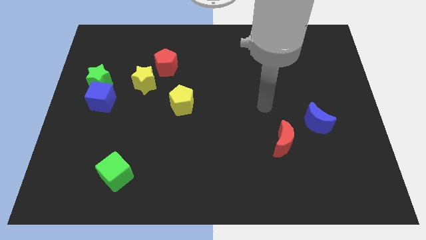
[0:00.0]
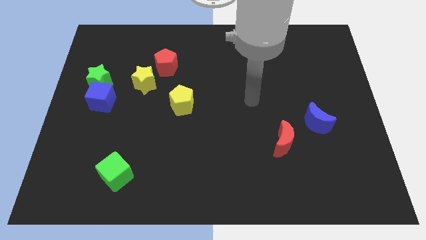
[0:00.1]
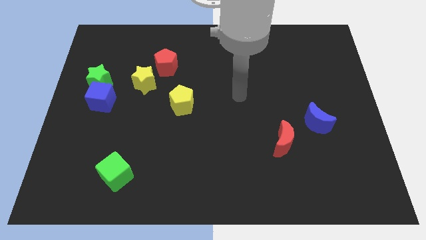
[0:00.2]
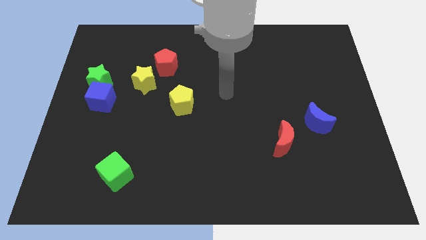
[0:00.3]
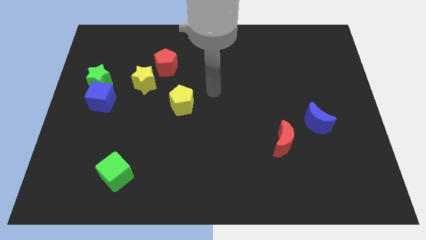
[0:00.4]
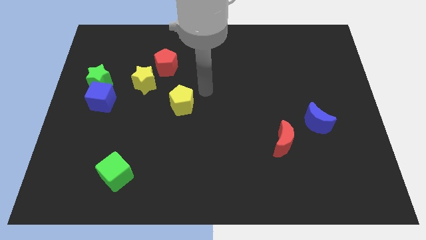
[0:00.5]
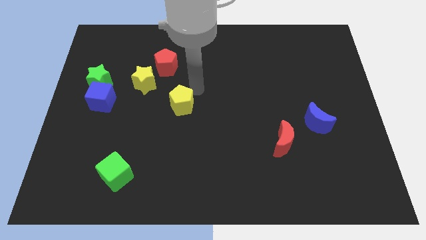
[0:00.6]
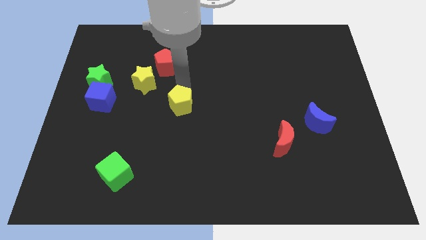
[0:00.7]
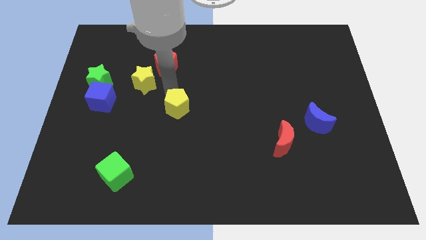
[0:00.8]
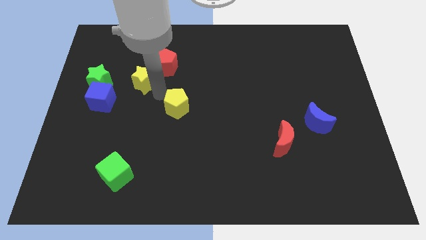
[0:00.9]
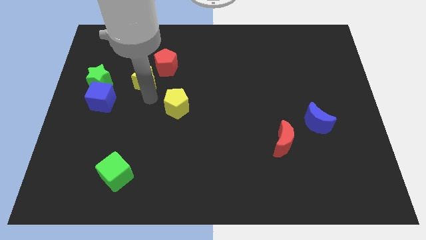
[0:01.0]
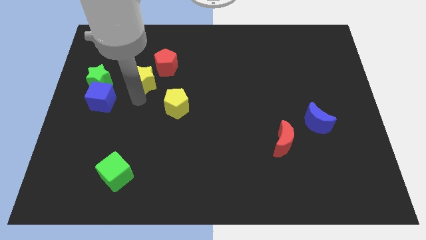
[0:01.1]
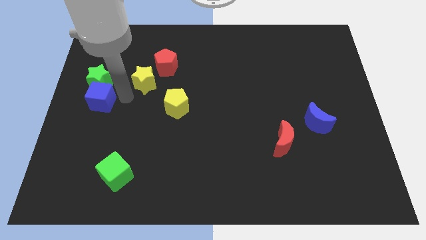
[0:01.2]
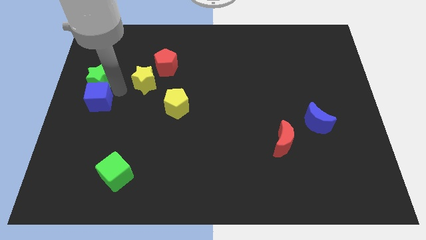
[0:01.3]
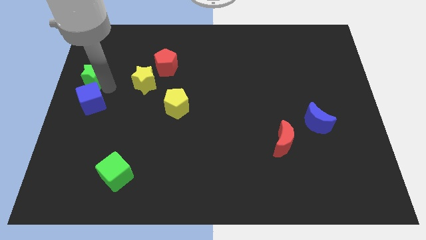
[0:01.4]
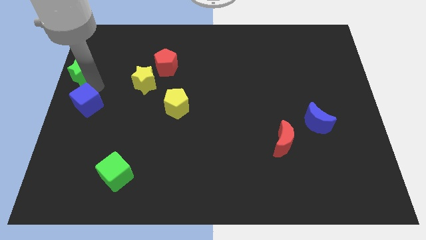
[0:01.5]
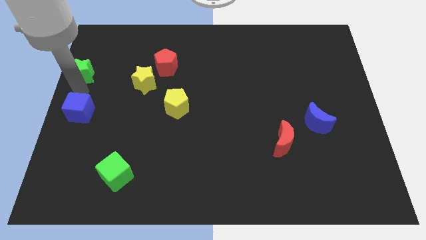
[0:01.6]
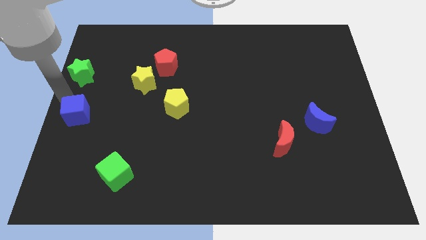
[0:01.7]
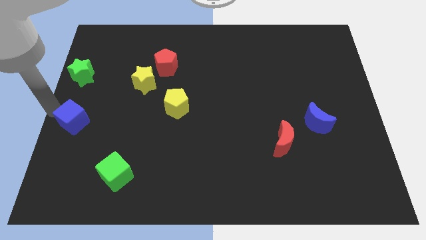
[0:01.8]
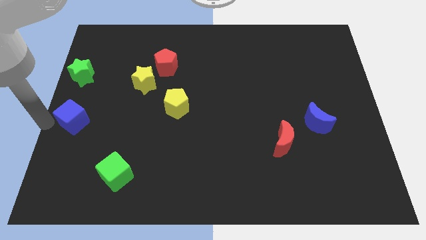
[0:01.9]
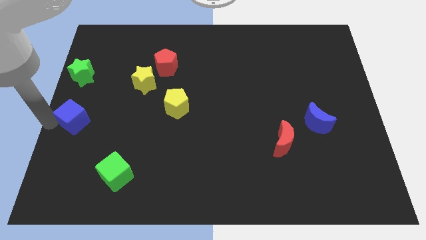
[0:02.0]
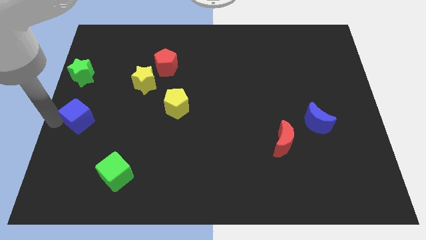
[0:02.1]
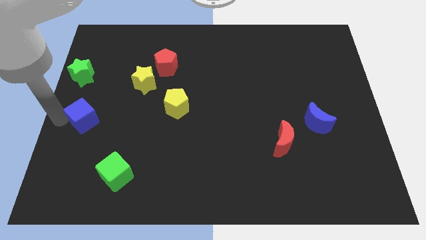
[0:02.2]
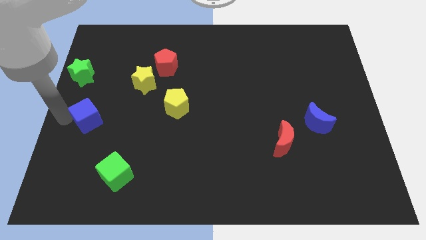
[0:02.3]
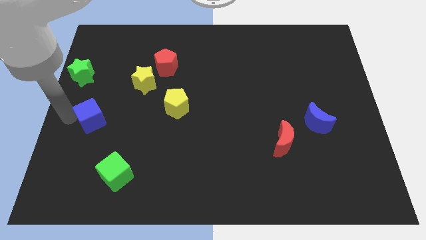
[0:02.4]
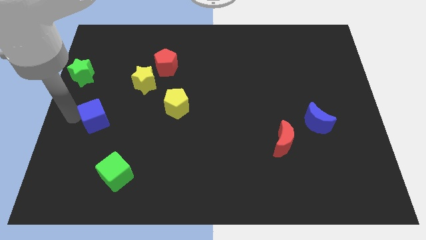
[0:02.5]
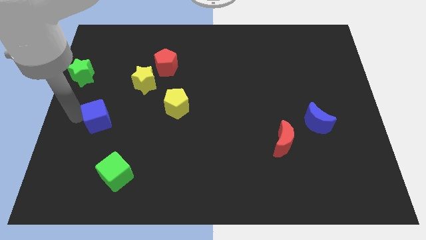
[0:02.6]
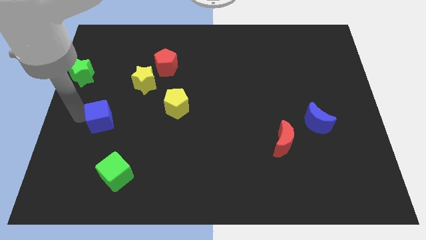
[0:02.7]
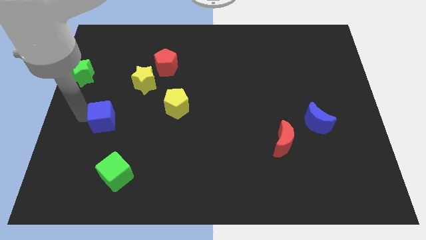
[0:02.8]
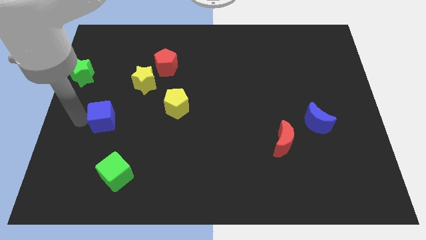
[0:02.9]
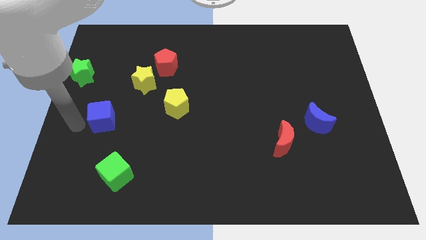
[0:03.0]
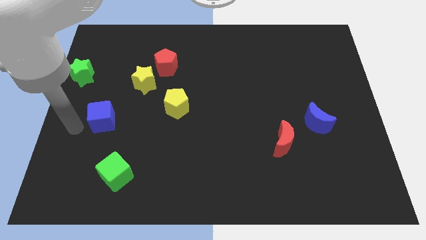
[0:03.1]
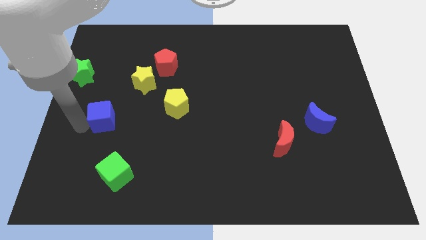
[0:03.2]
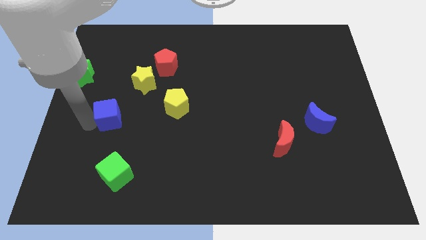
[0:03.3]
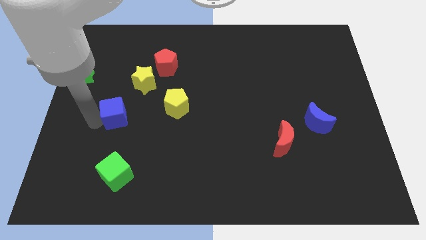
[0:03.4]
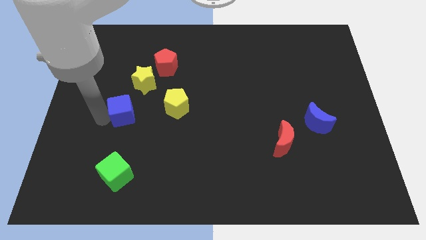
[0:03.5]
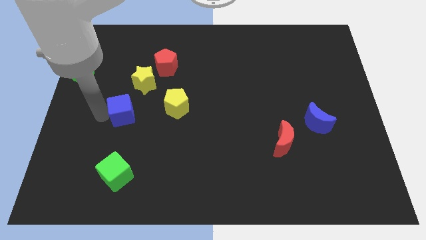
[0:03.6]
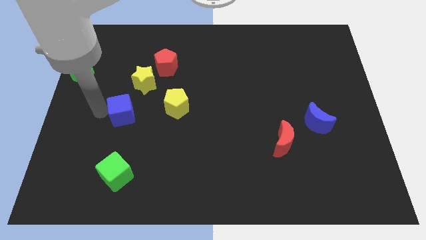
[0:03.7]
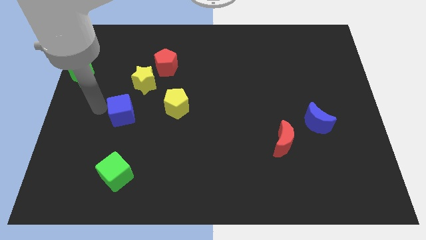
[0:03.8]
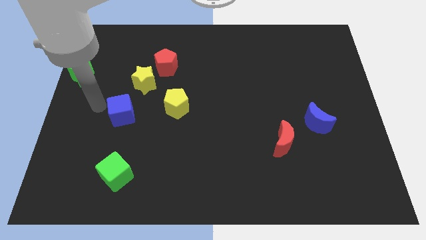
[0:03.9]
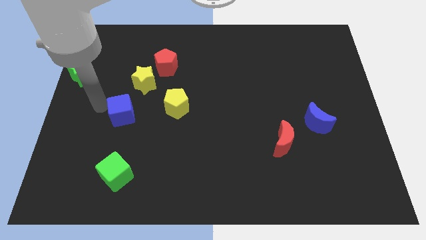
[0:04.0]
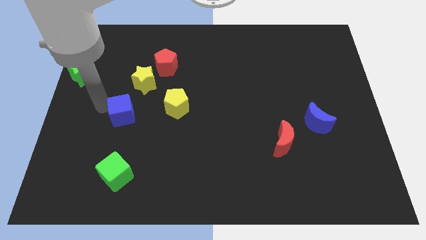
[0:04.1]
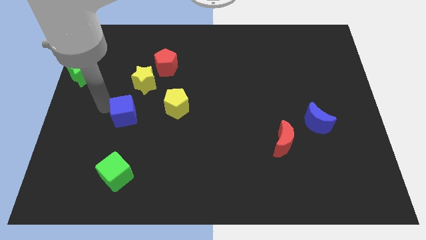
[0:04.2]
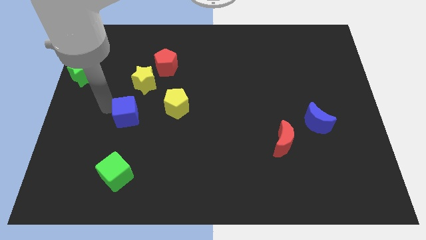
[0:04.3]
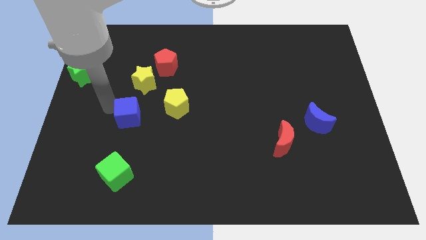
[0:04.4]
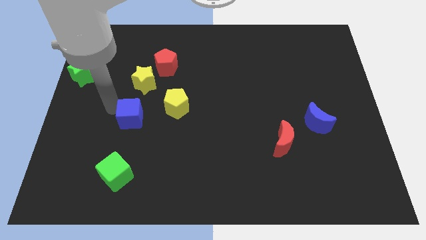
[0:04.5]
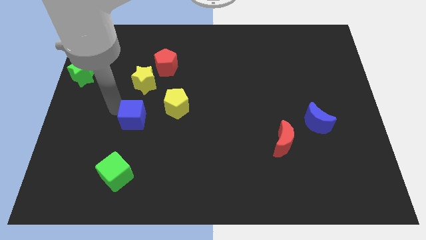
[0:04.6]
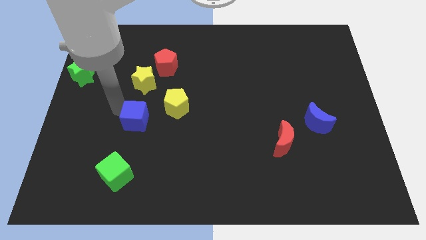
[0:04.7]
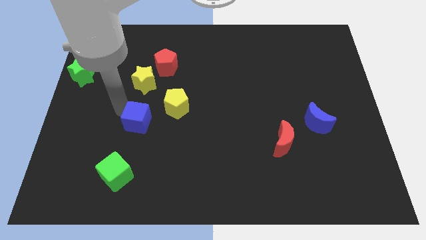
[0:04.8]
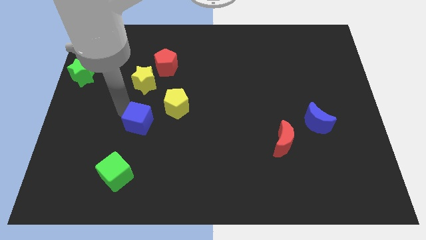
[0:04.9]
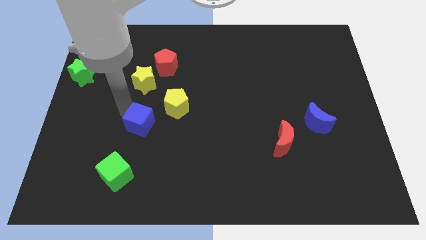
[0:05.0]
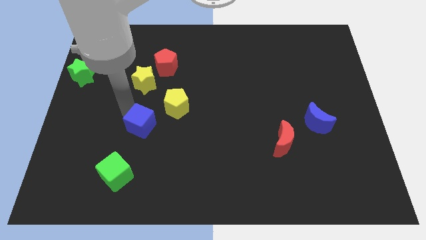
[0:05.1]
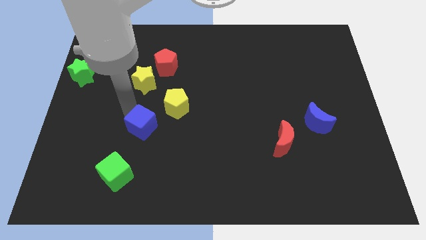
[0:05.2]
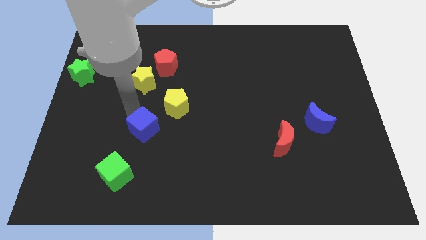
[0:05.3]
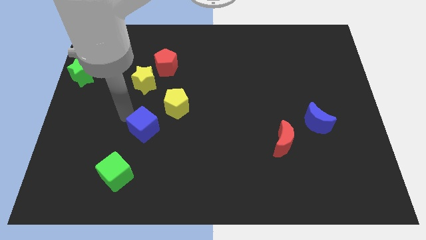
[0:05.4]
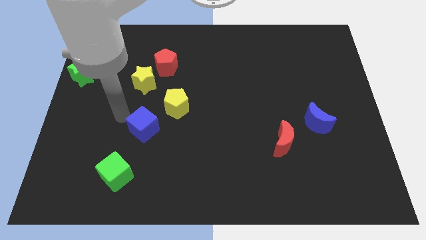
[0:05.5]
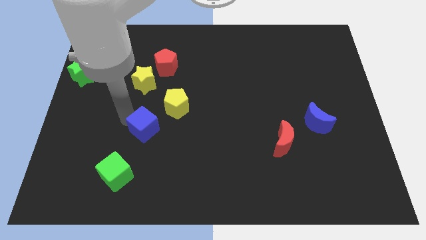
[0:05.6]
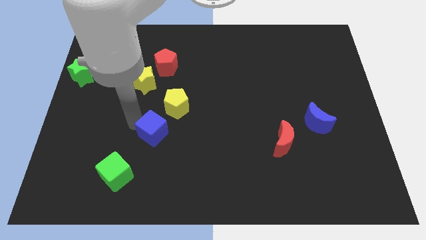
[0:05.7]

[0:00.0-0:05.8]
move the blue cube below the yellow pentagon

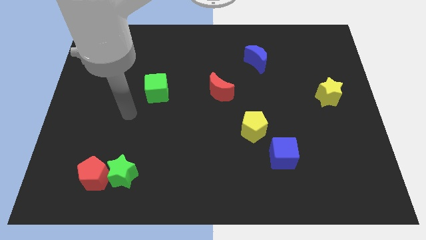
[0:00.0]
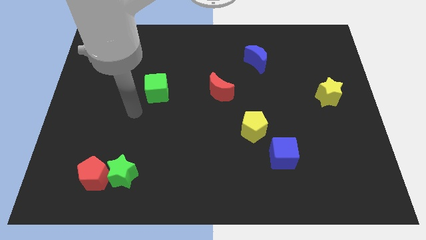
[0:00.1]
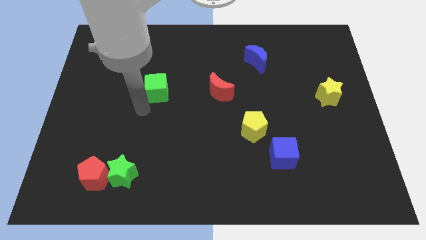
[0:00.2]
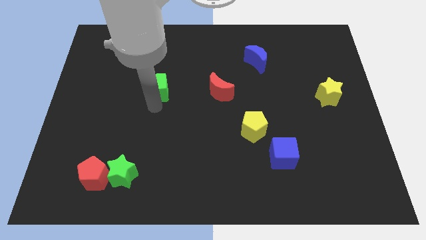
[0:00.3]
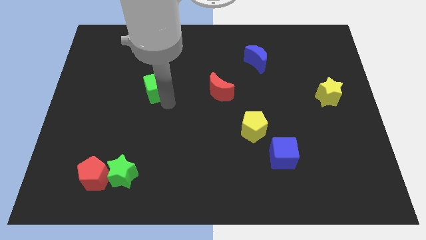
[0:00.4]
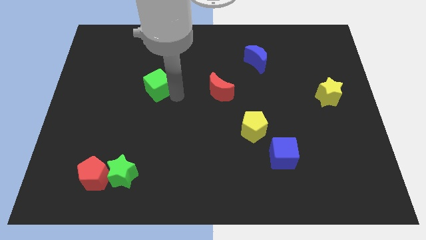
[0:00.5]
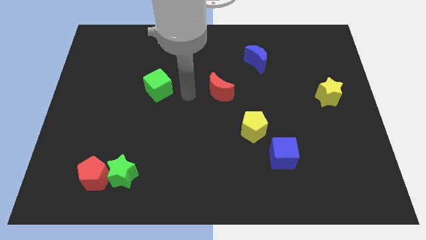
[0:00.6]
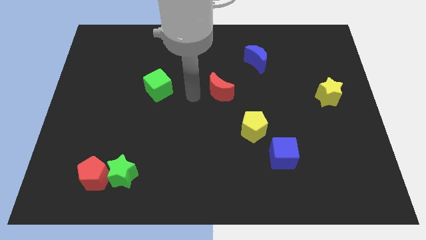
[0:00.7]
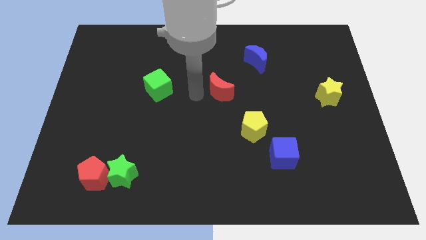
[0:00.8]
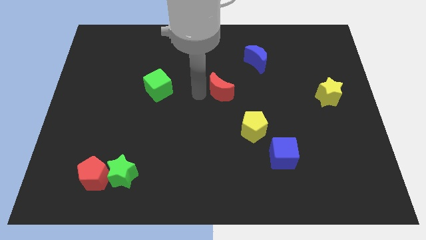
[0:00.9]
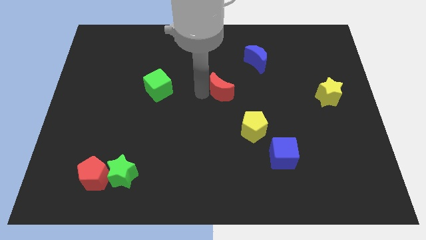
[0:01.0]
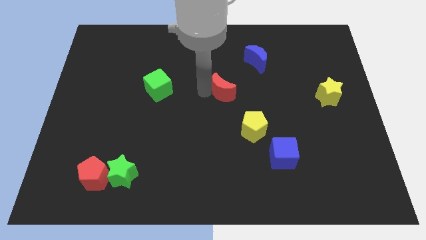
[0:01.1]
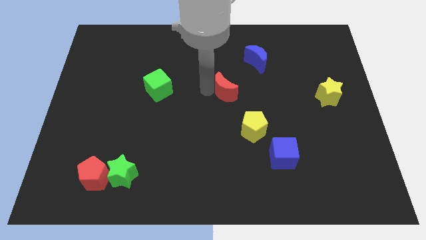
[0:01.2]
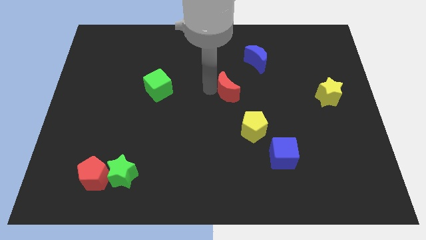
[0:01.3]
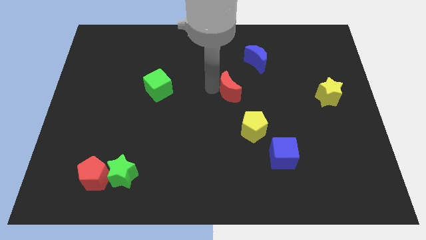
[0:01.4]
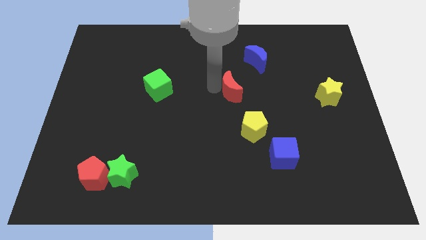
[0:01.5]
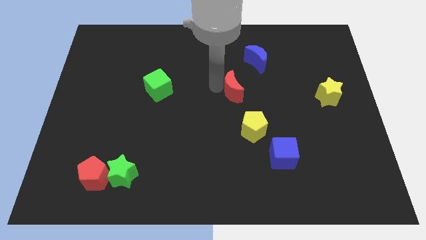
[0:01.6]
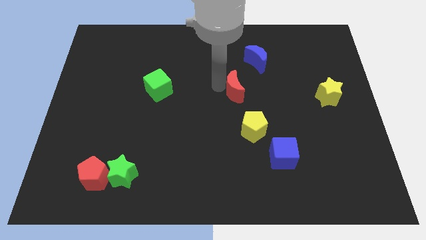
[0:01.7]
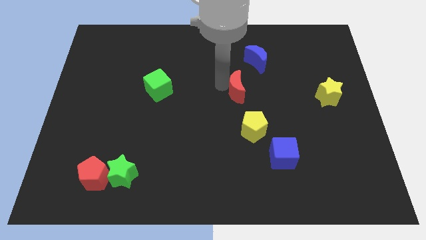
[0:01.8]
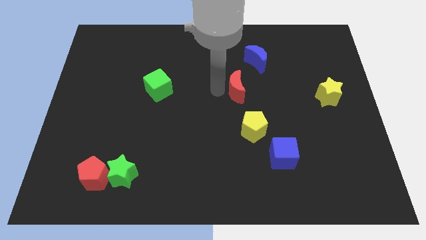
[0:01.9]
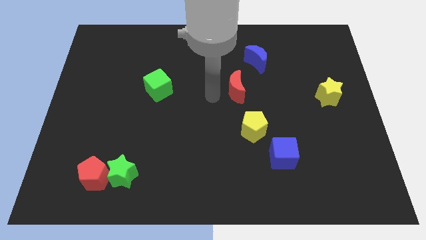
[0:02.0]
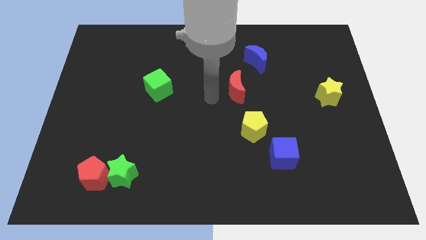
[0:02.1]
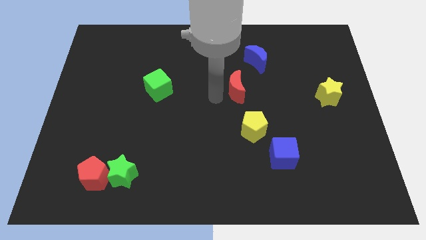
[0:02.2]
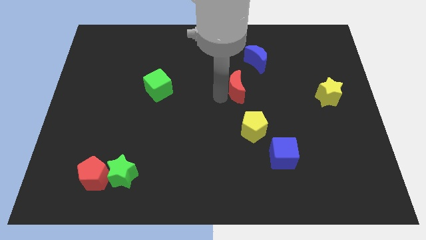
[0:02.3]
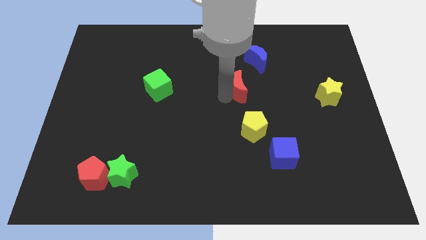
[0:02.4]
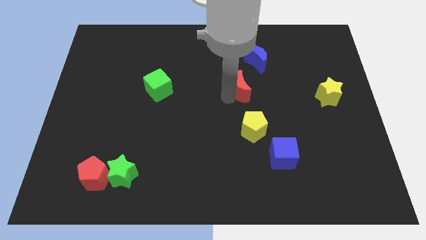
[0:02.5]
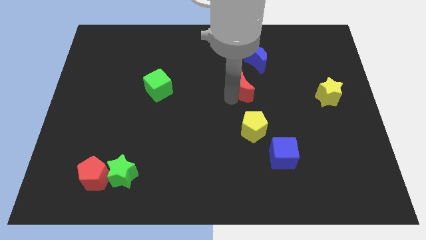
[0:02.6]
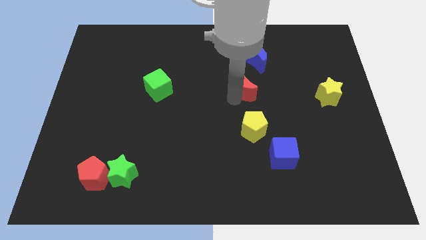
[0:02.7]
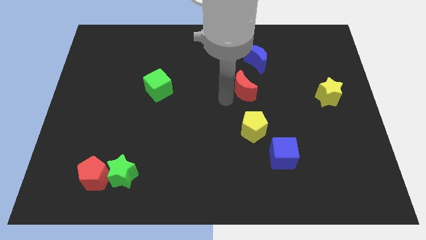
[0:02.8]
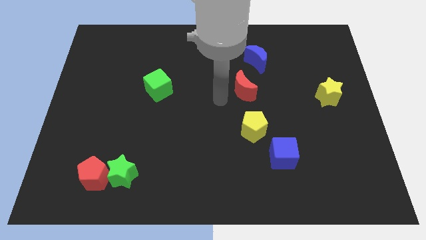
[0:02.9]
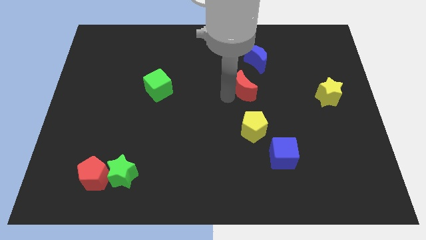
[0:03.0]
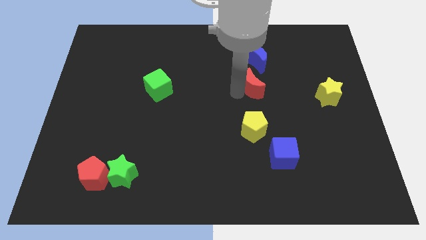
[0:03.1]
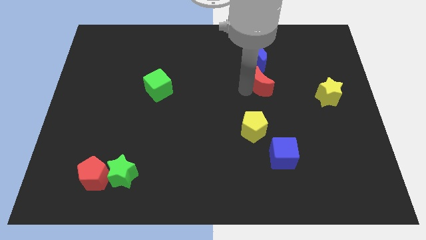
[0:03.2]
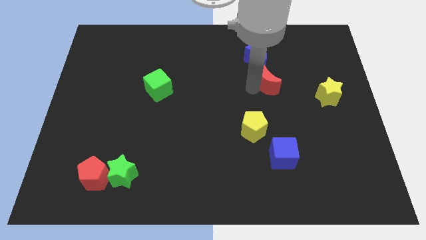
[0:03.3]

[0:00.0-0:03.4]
slide the red moon diagonally down and to the right of the blue moon
